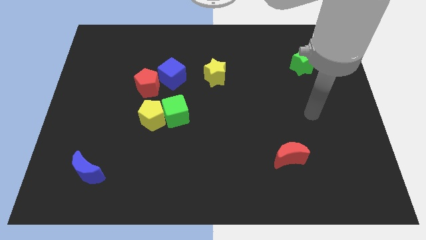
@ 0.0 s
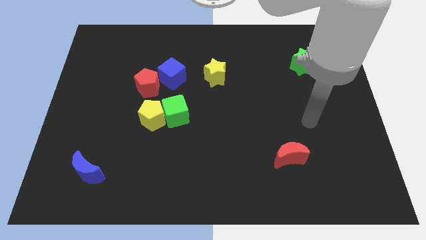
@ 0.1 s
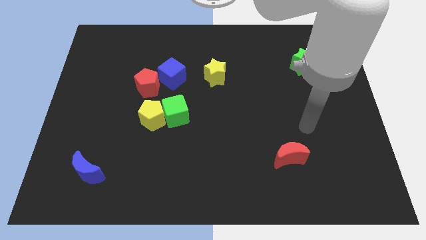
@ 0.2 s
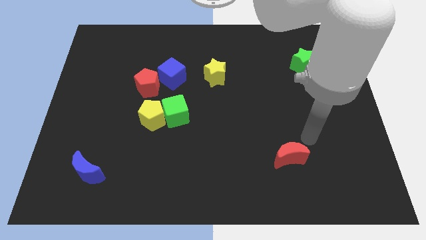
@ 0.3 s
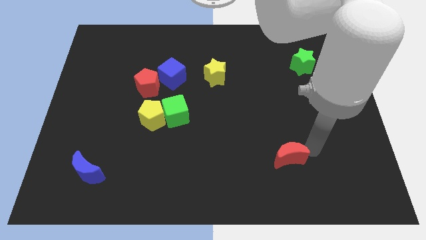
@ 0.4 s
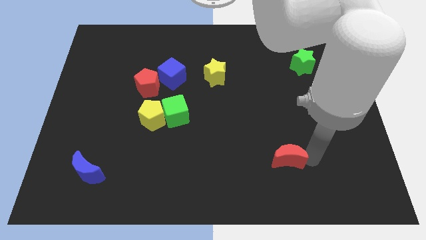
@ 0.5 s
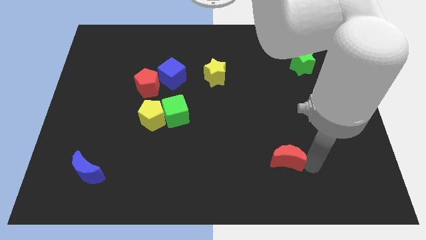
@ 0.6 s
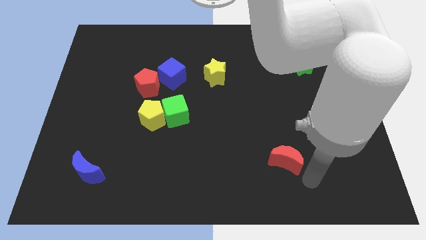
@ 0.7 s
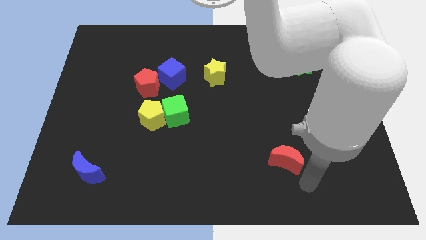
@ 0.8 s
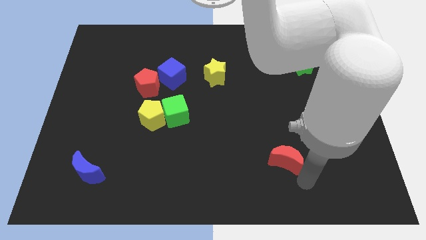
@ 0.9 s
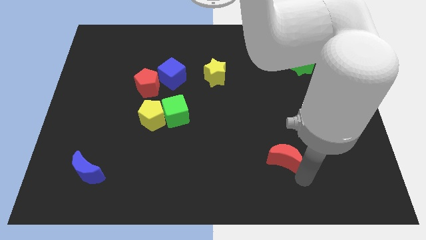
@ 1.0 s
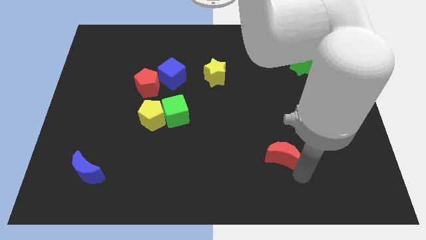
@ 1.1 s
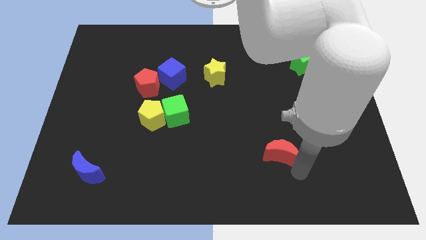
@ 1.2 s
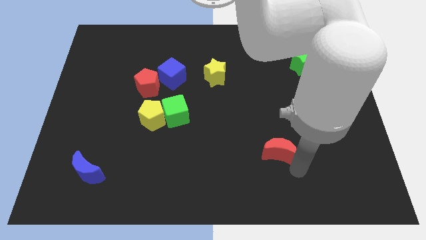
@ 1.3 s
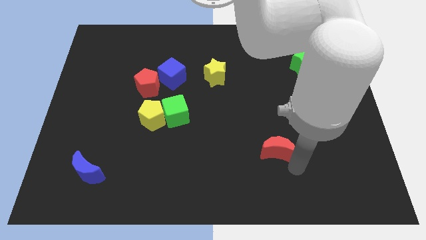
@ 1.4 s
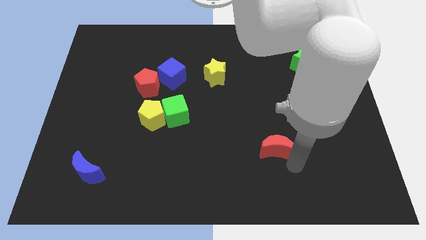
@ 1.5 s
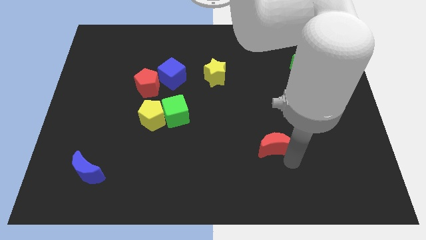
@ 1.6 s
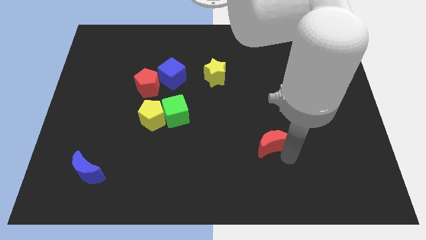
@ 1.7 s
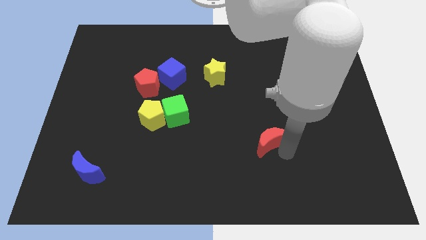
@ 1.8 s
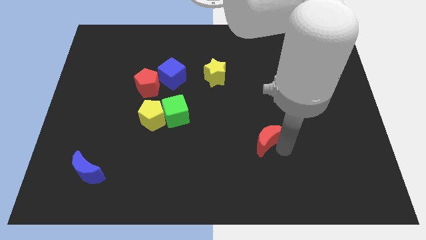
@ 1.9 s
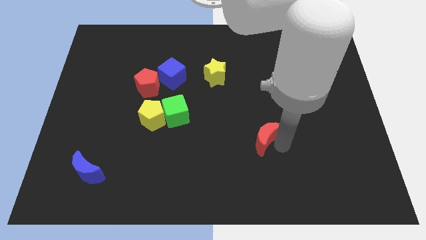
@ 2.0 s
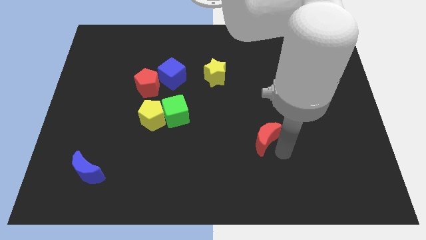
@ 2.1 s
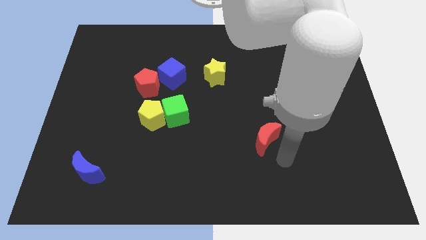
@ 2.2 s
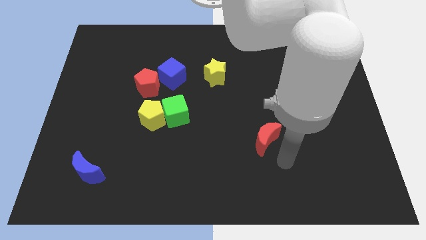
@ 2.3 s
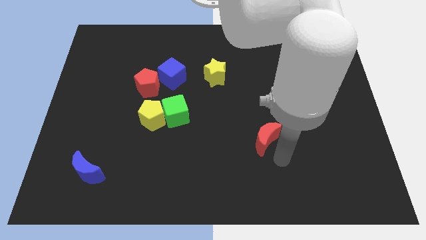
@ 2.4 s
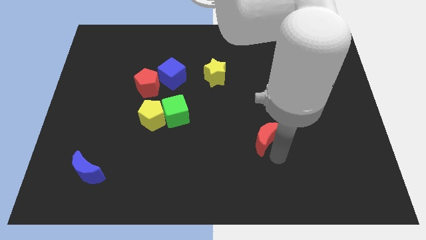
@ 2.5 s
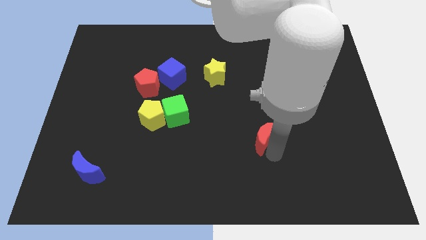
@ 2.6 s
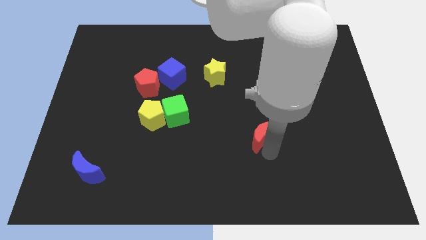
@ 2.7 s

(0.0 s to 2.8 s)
slightly move the red moon up and left diagonally

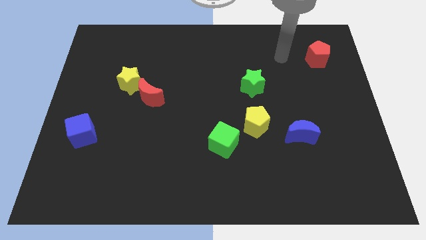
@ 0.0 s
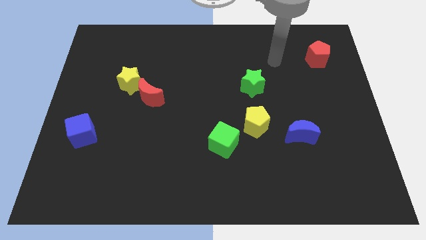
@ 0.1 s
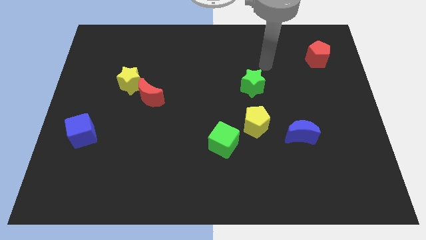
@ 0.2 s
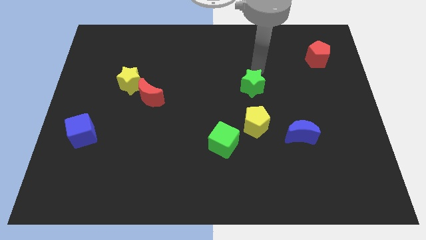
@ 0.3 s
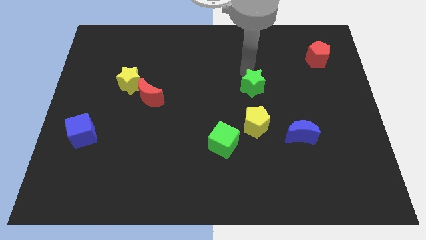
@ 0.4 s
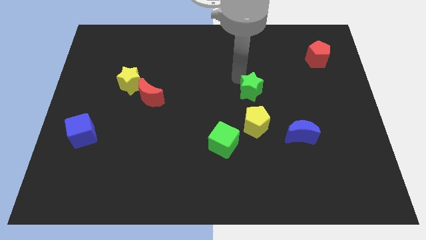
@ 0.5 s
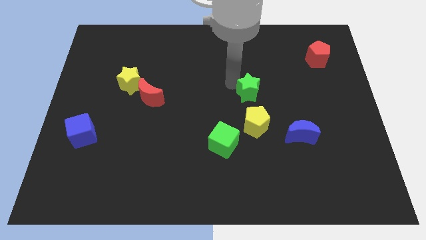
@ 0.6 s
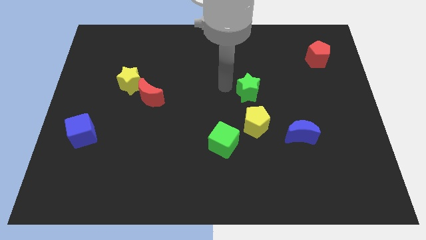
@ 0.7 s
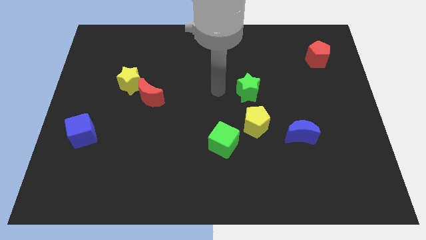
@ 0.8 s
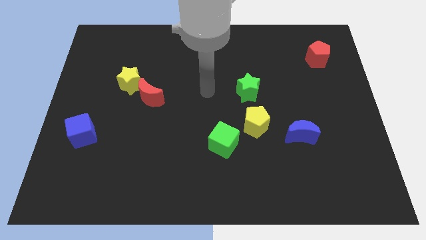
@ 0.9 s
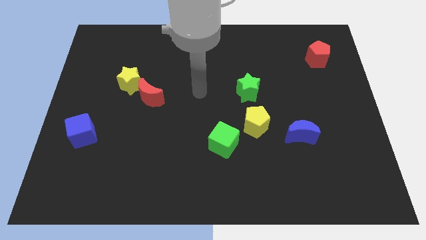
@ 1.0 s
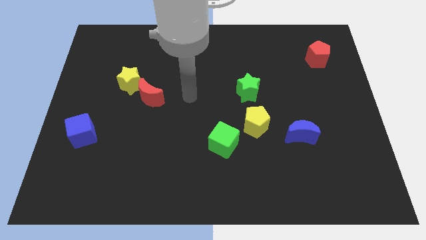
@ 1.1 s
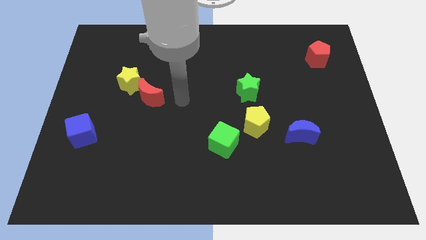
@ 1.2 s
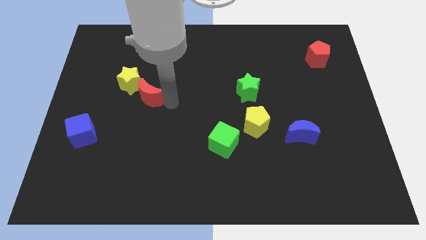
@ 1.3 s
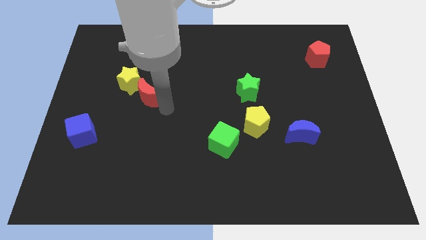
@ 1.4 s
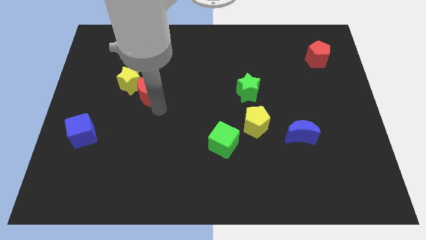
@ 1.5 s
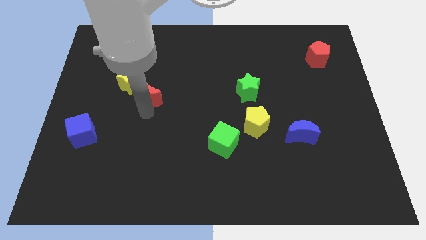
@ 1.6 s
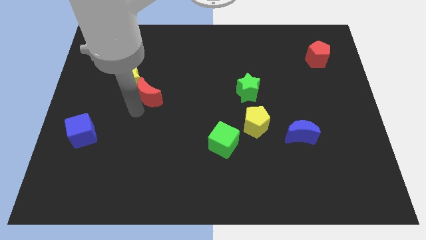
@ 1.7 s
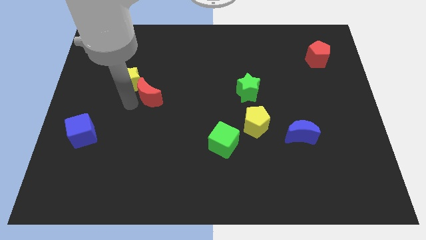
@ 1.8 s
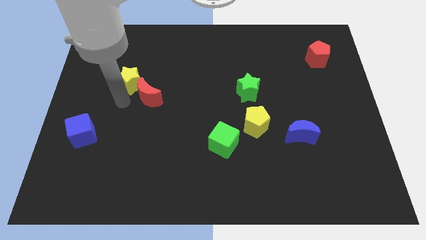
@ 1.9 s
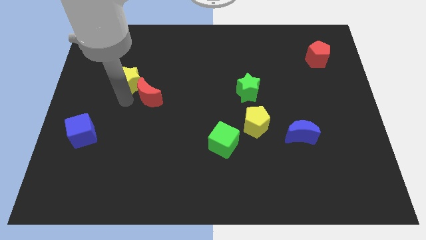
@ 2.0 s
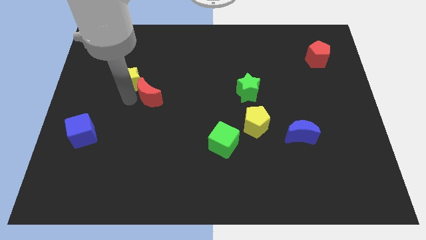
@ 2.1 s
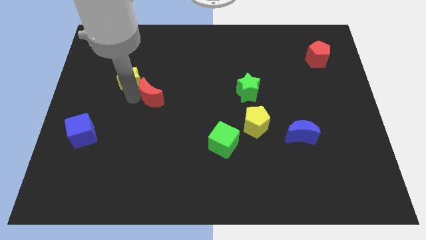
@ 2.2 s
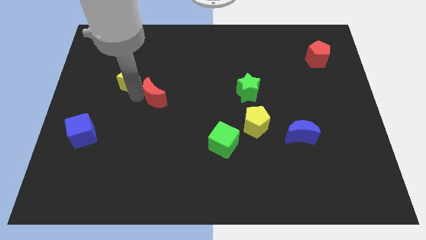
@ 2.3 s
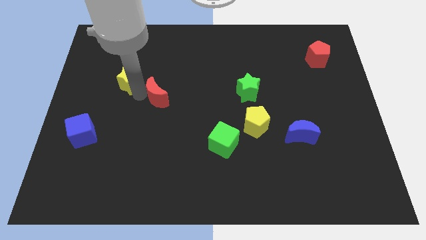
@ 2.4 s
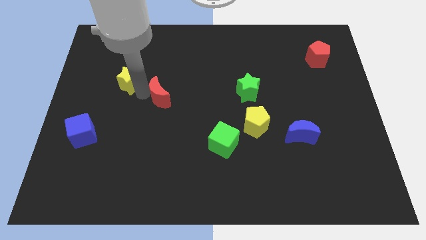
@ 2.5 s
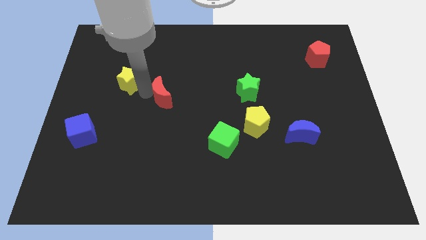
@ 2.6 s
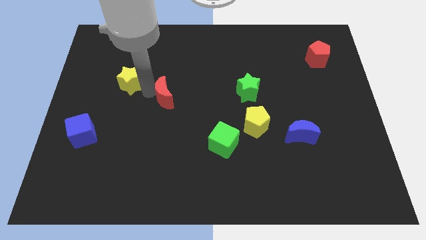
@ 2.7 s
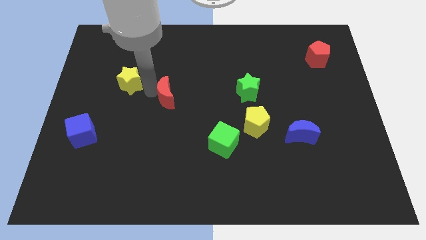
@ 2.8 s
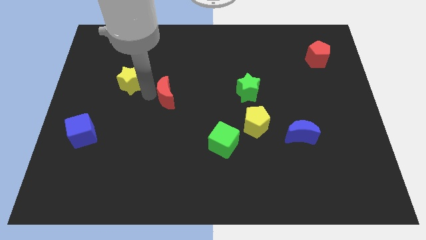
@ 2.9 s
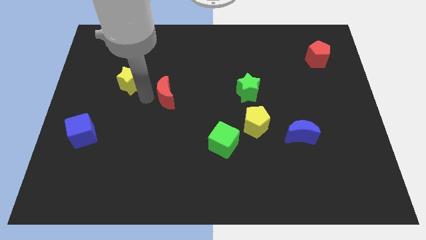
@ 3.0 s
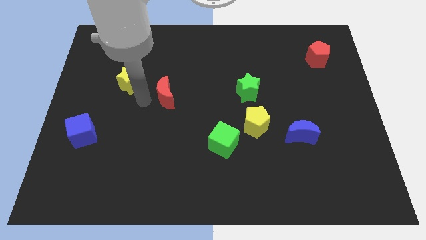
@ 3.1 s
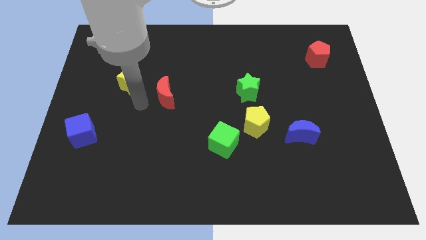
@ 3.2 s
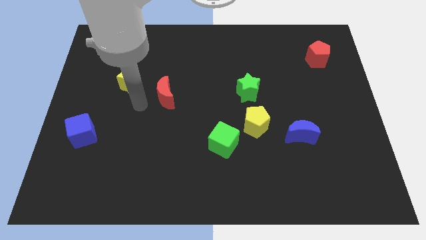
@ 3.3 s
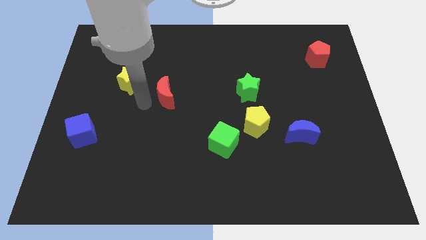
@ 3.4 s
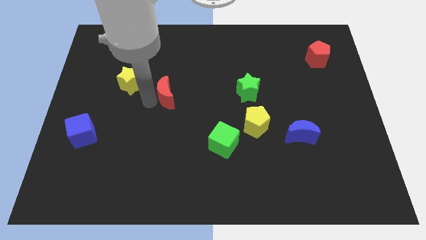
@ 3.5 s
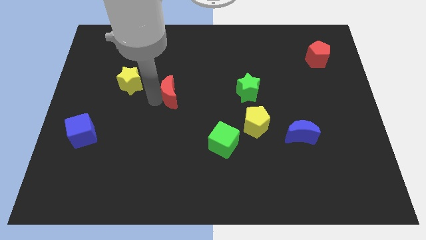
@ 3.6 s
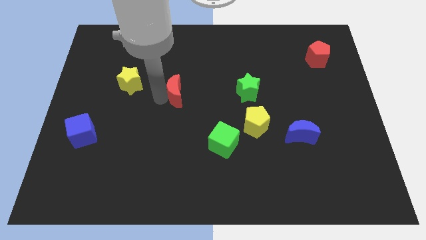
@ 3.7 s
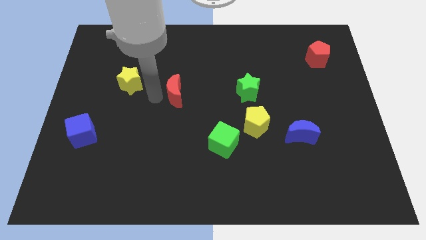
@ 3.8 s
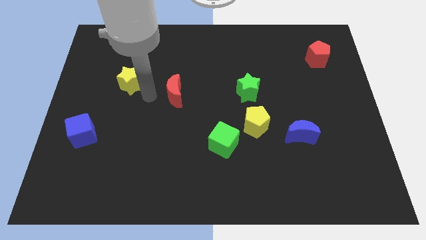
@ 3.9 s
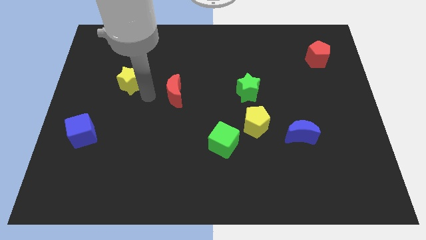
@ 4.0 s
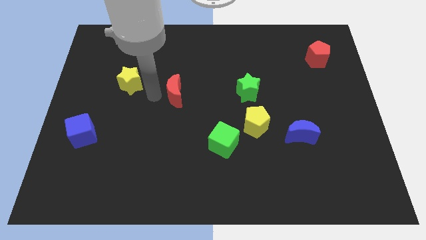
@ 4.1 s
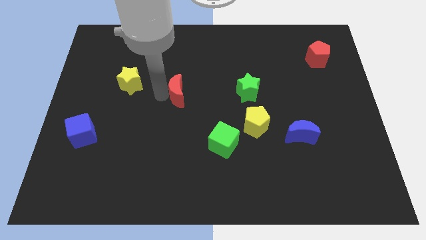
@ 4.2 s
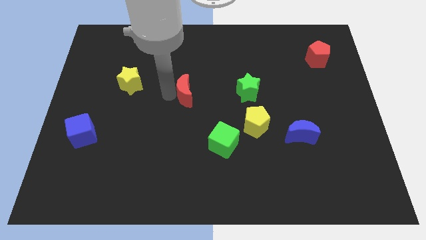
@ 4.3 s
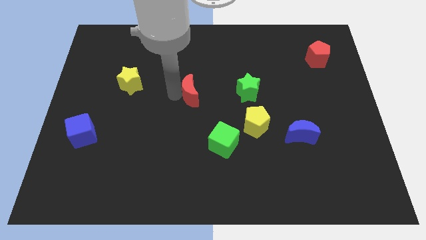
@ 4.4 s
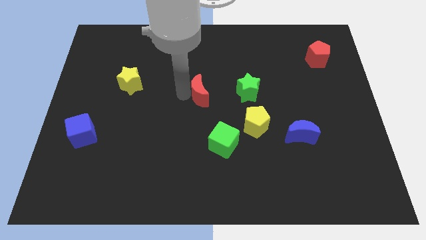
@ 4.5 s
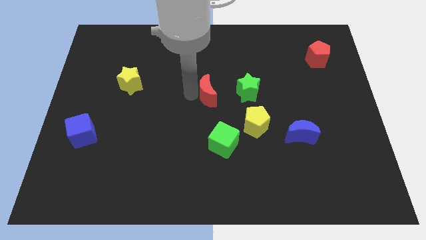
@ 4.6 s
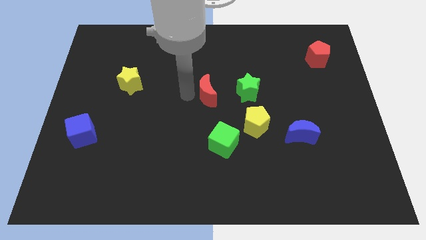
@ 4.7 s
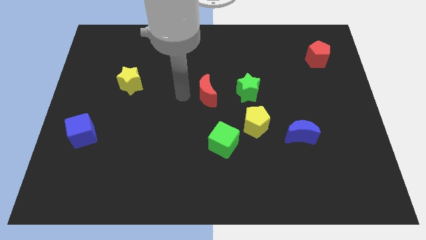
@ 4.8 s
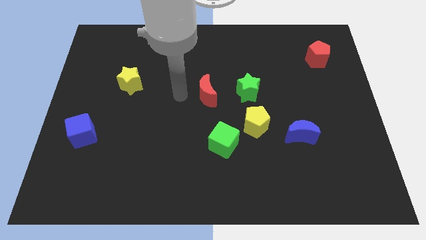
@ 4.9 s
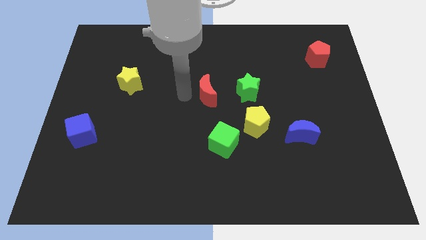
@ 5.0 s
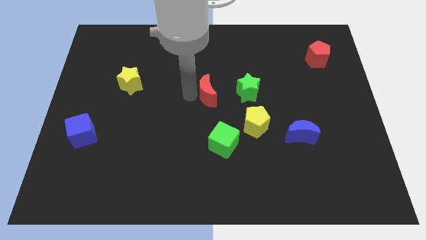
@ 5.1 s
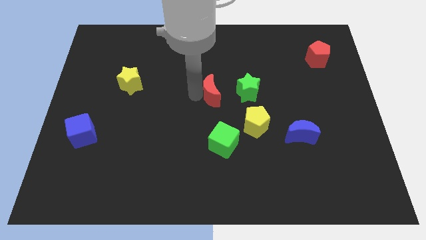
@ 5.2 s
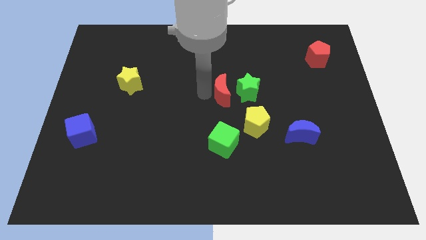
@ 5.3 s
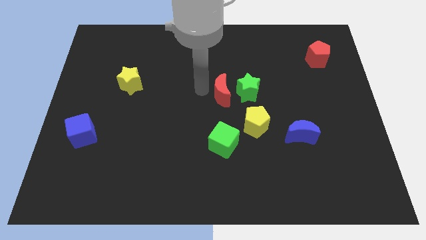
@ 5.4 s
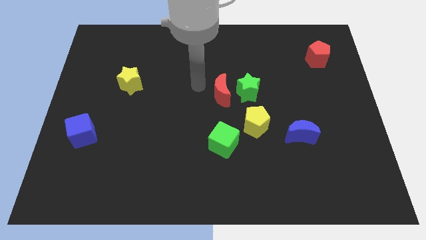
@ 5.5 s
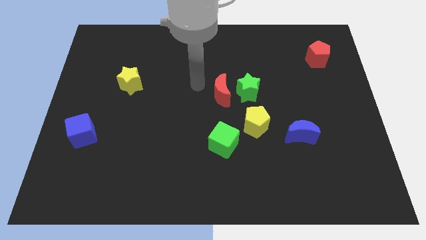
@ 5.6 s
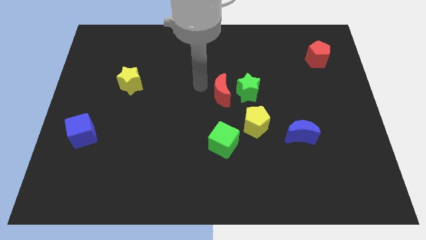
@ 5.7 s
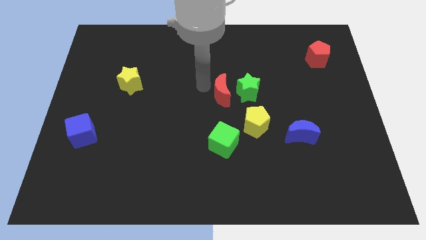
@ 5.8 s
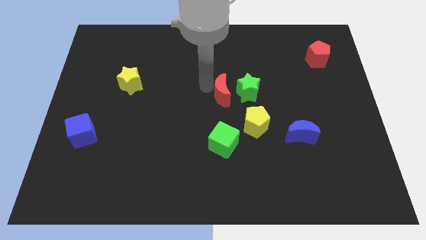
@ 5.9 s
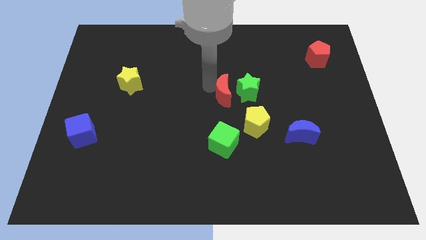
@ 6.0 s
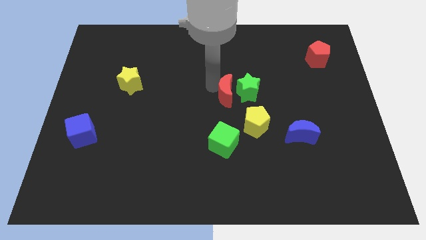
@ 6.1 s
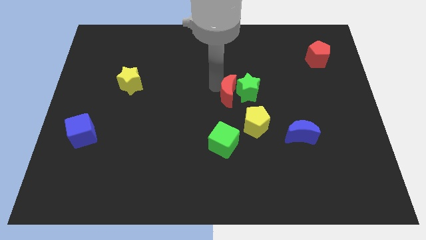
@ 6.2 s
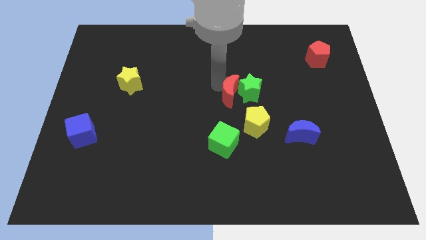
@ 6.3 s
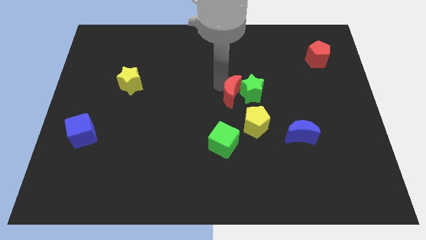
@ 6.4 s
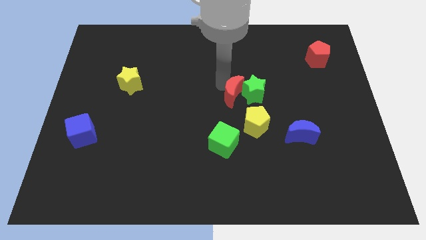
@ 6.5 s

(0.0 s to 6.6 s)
move the red moon right
